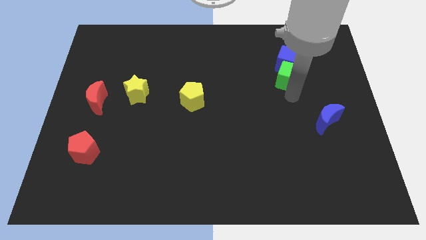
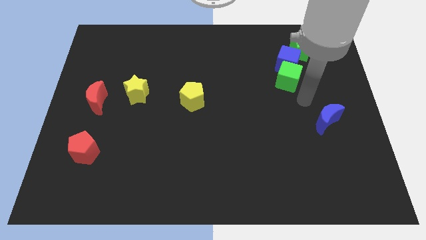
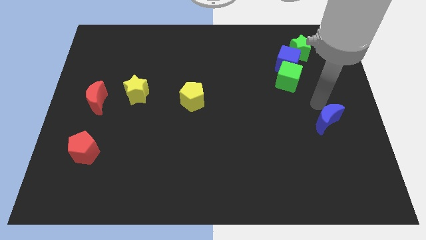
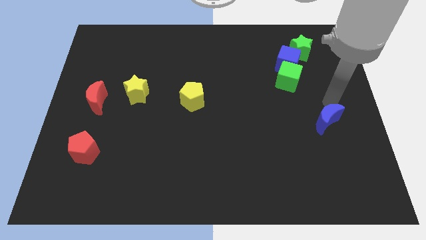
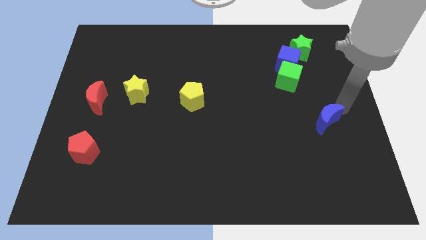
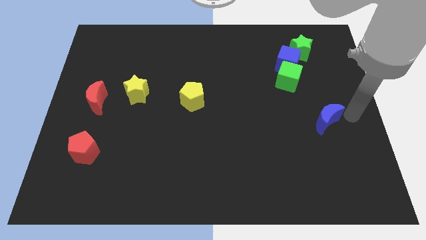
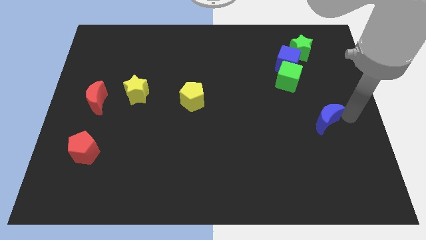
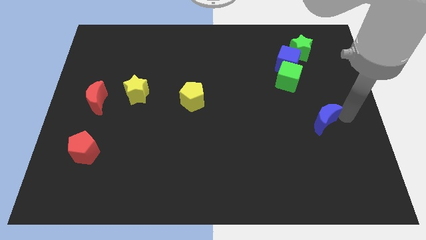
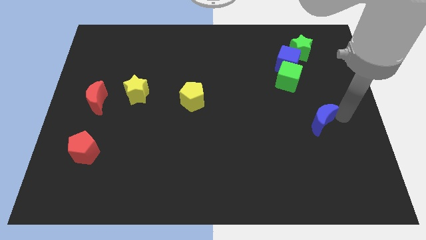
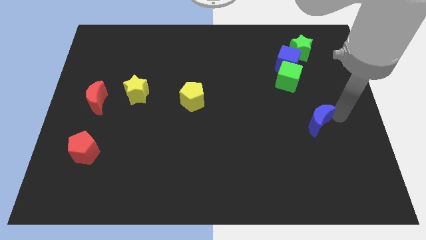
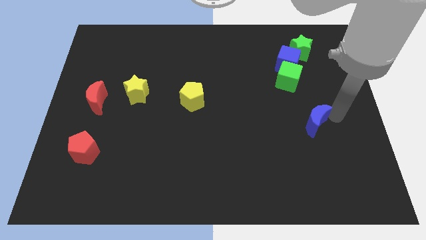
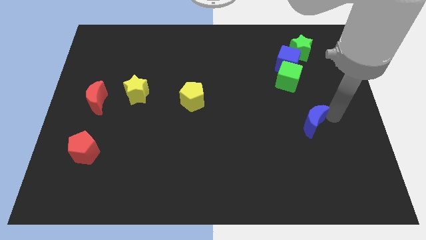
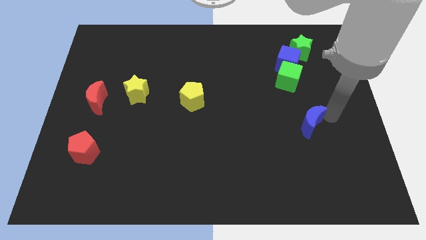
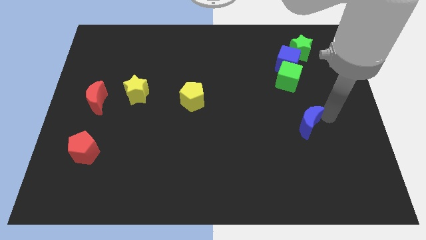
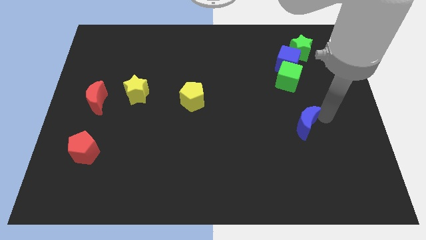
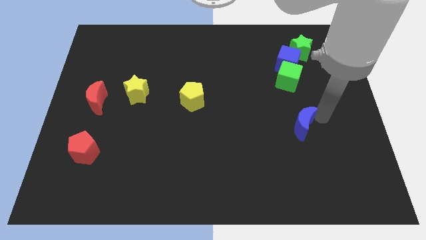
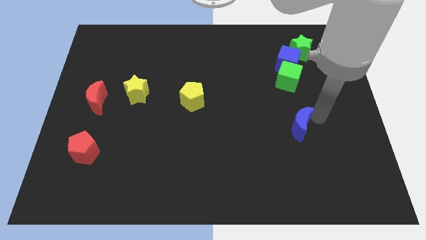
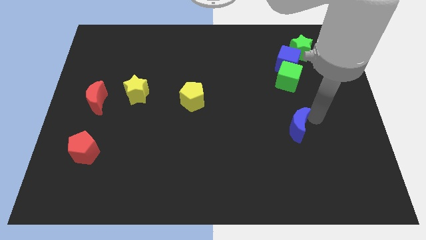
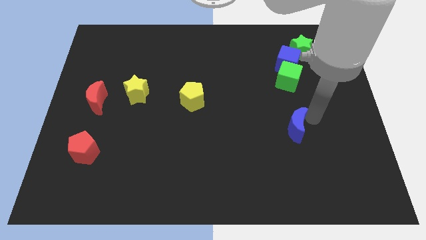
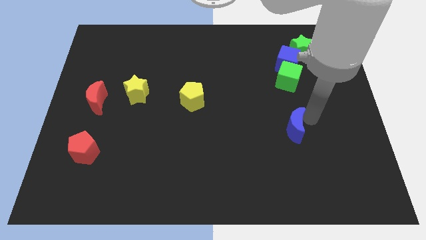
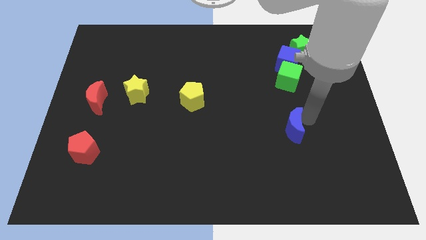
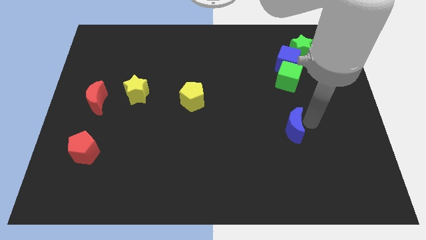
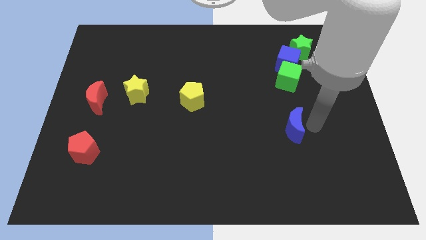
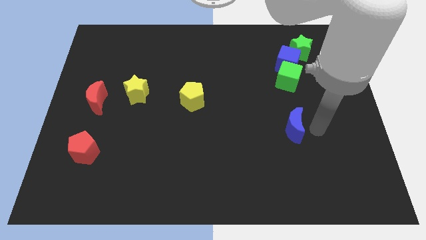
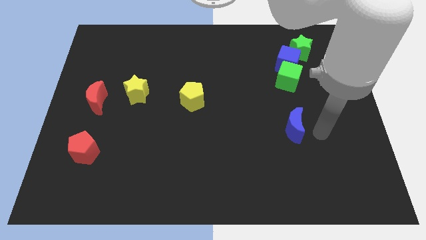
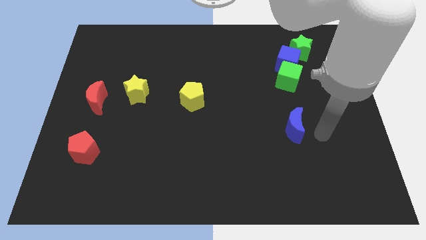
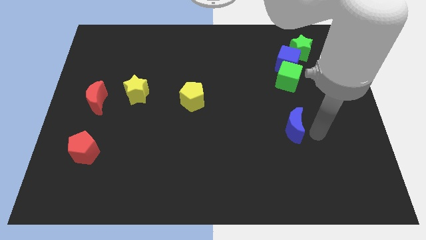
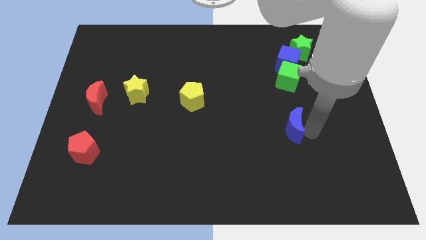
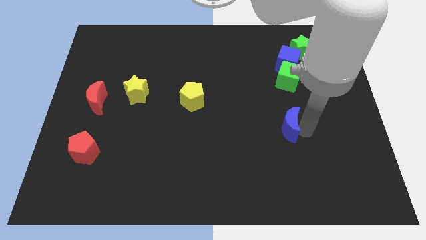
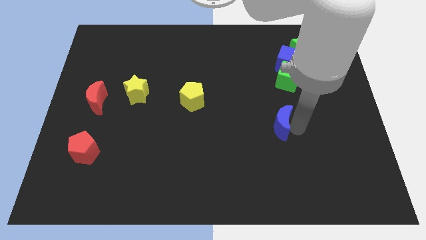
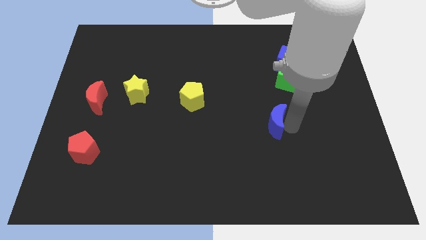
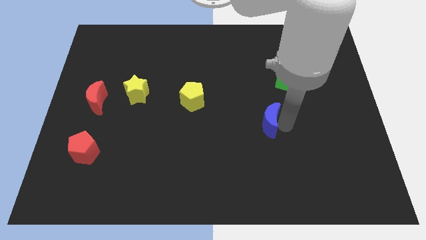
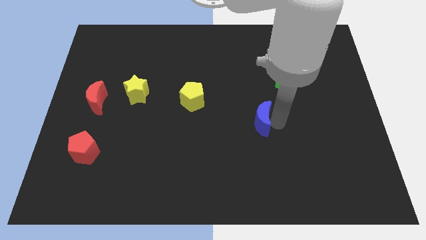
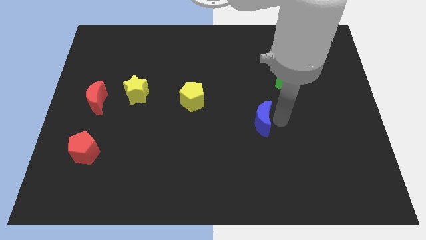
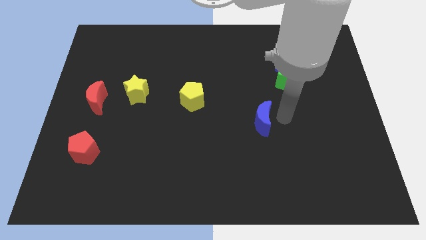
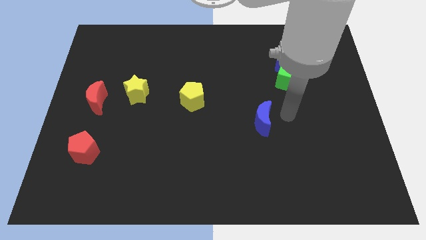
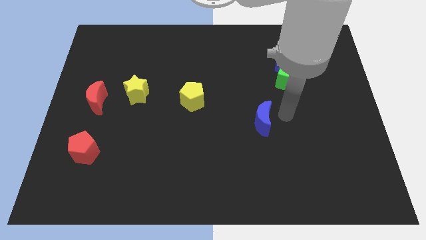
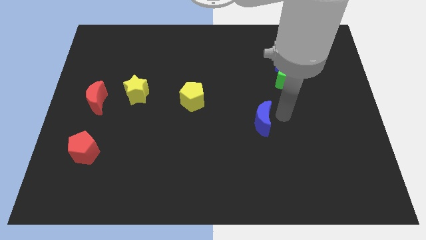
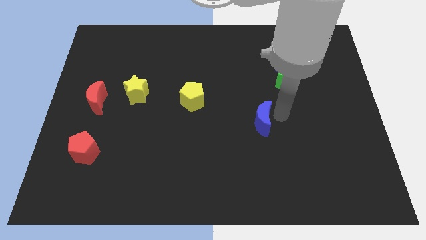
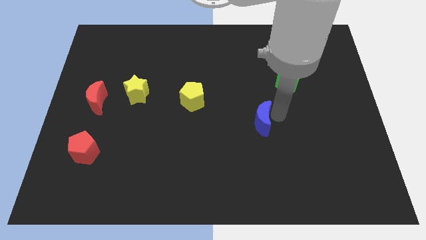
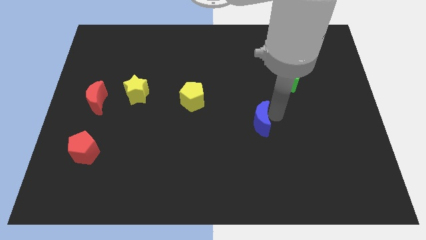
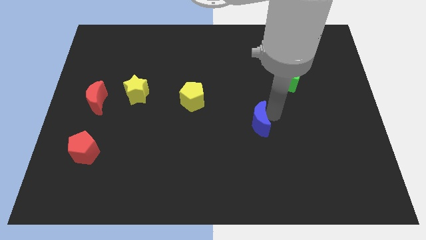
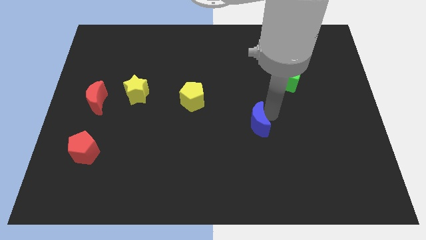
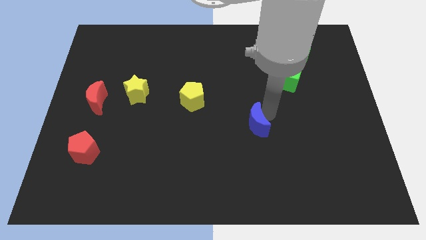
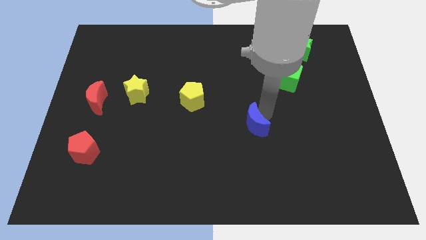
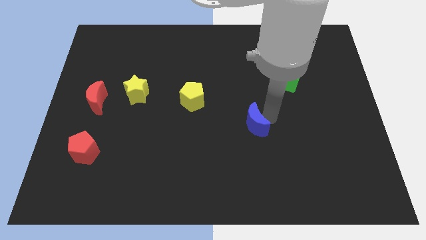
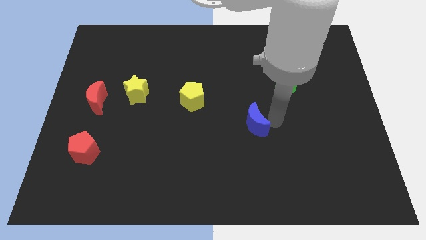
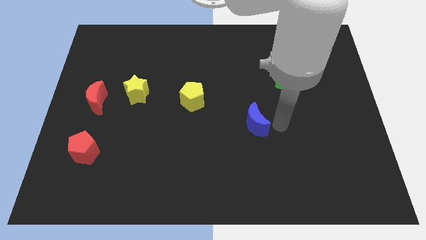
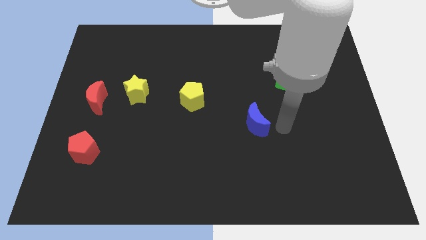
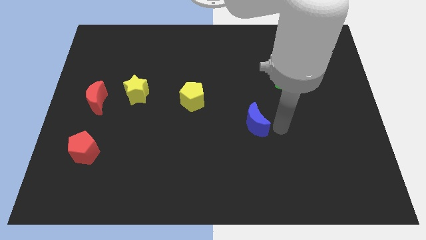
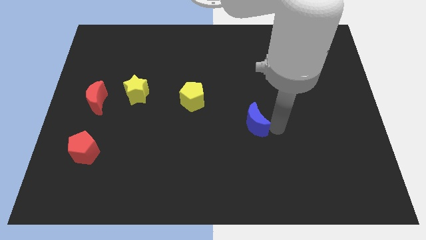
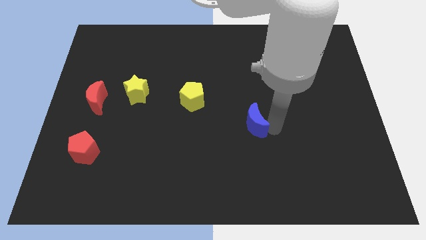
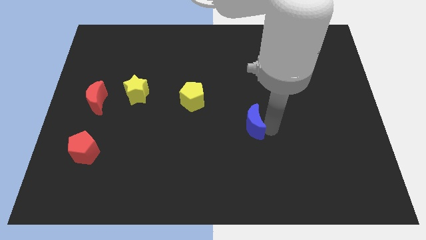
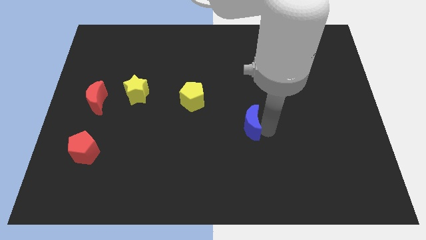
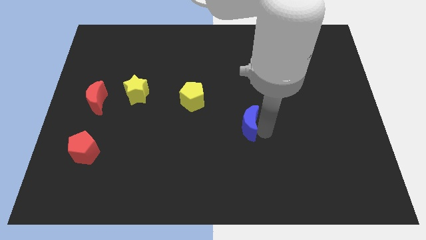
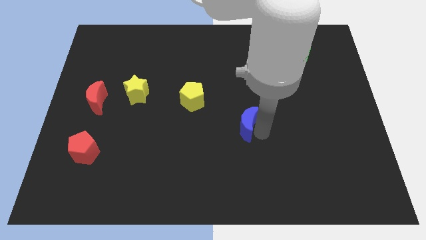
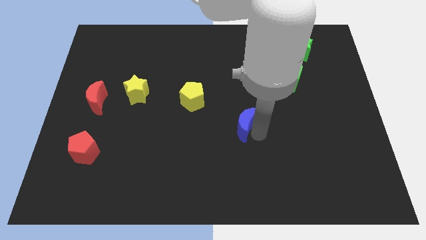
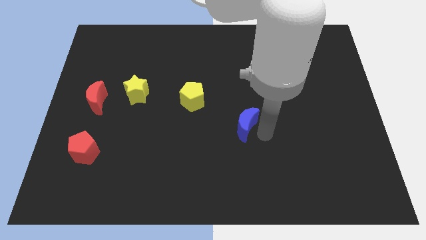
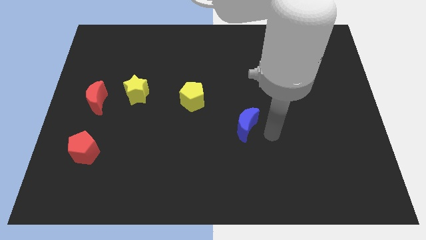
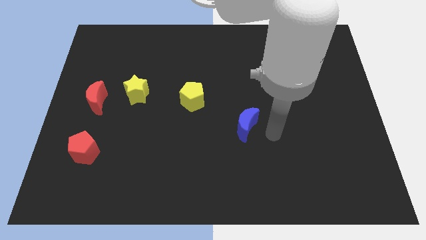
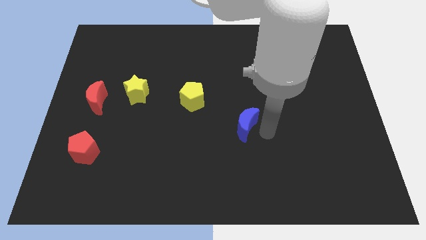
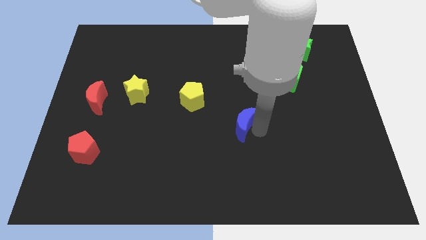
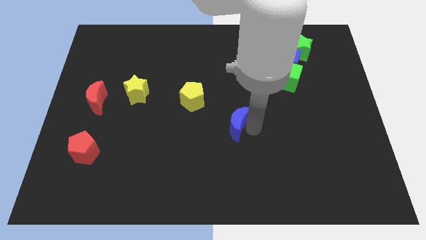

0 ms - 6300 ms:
slide the blue moon to the left

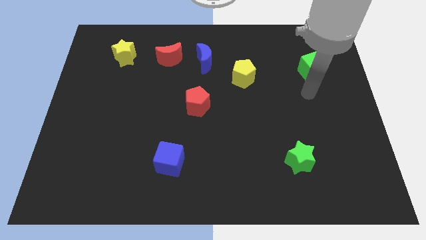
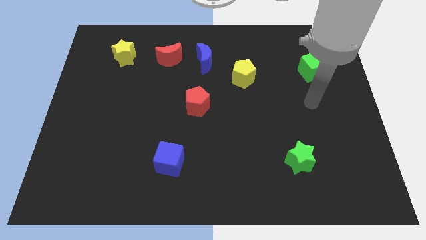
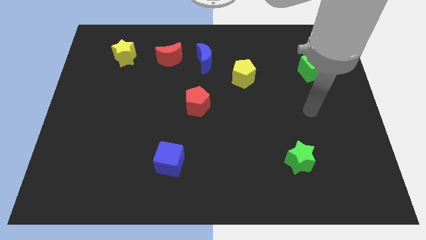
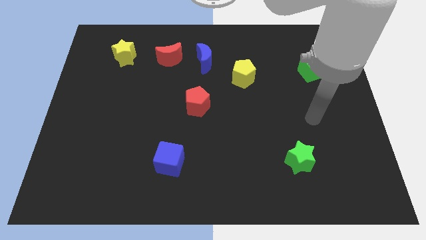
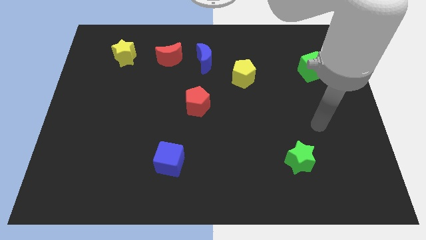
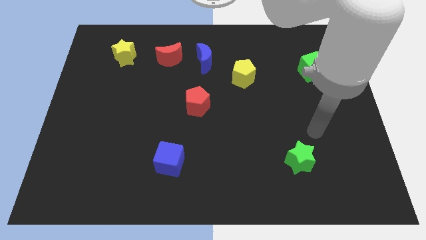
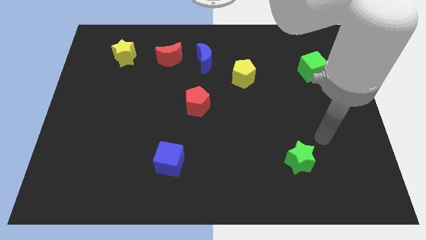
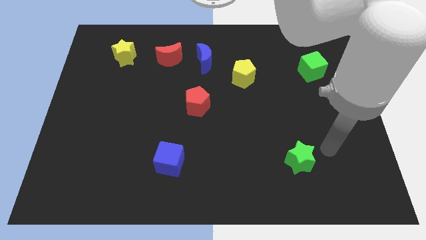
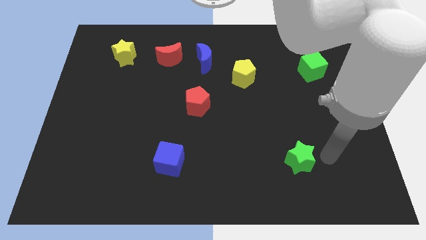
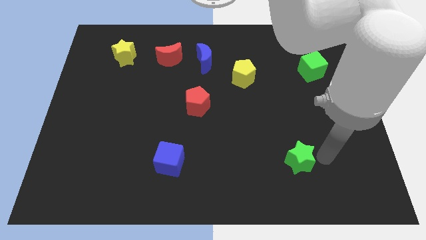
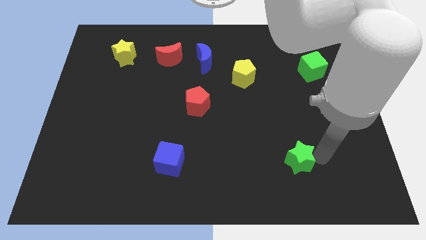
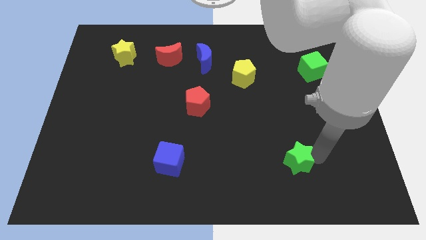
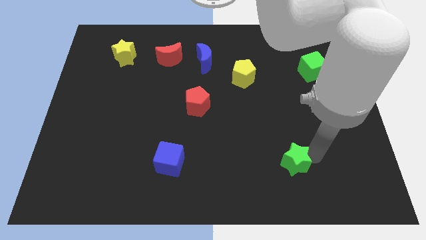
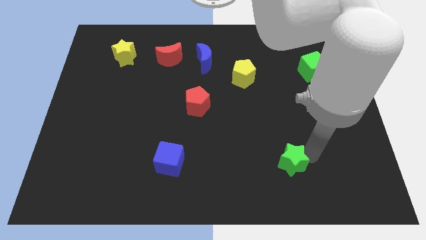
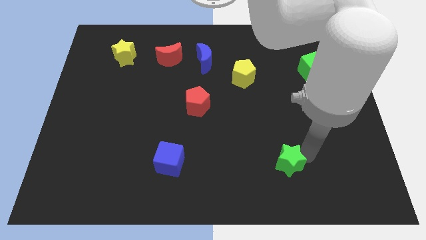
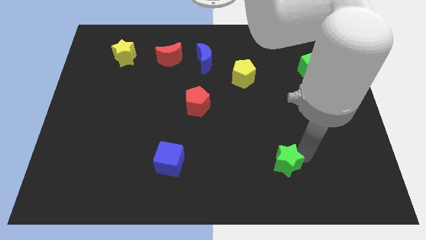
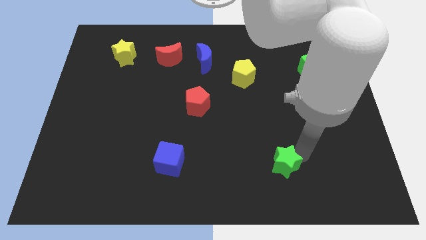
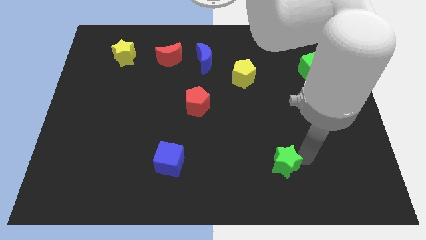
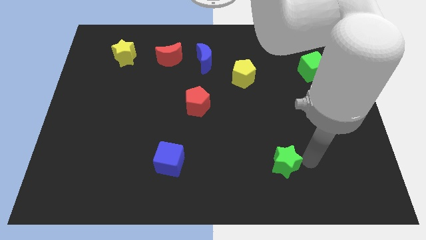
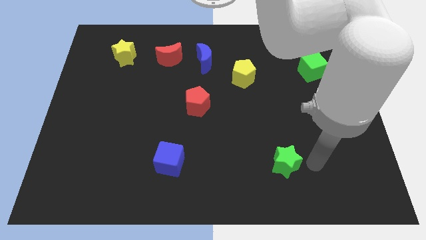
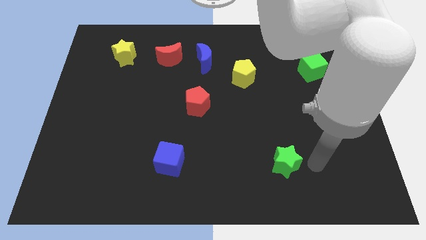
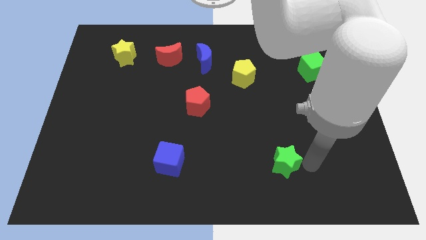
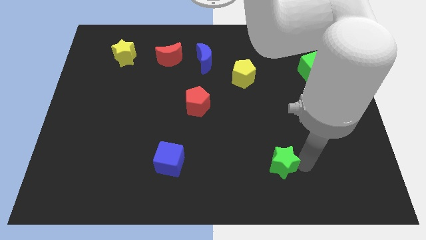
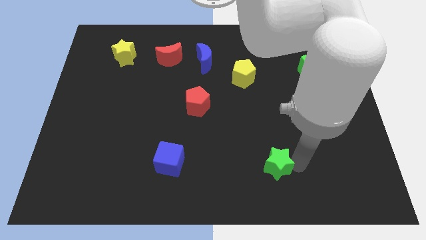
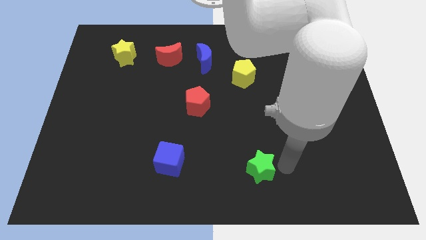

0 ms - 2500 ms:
move the green star somewhat to the left
